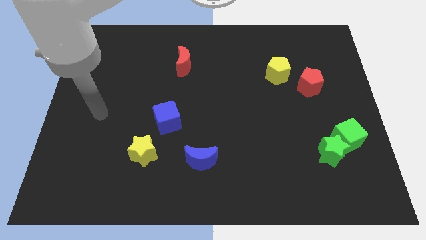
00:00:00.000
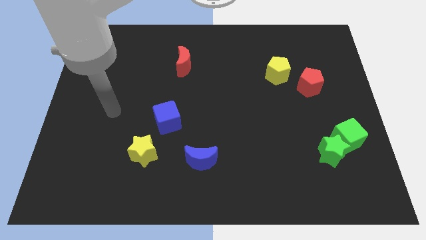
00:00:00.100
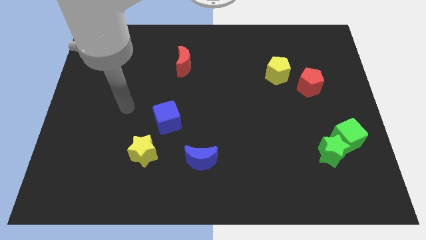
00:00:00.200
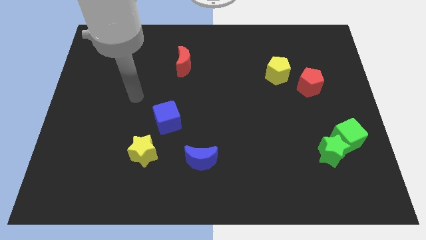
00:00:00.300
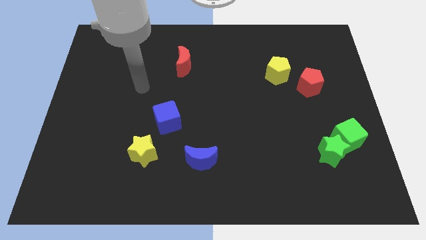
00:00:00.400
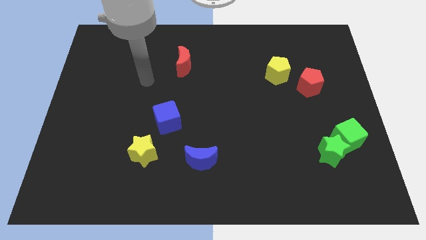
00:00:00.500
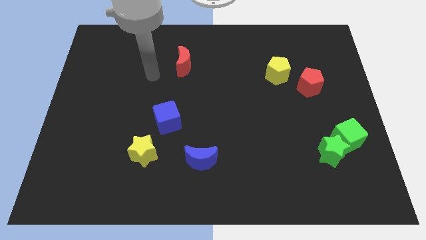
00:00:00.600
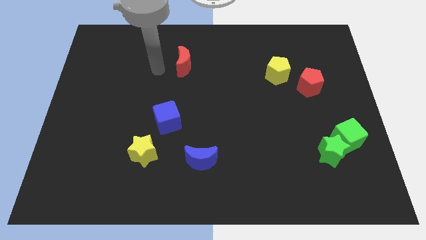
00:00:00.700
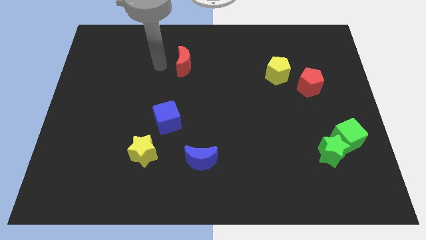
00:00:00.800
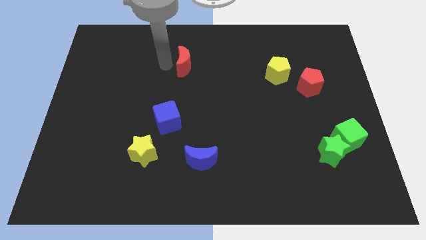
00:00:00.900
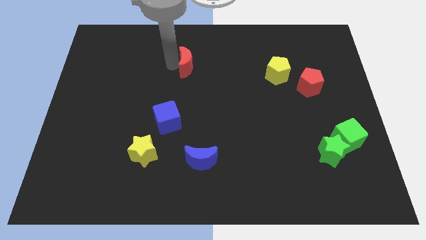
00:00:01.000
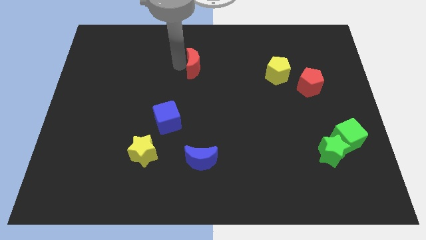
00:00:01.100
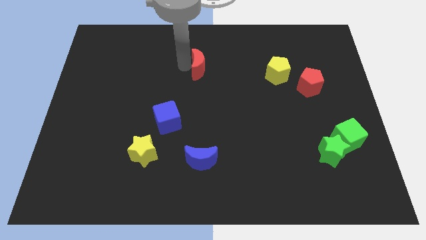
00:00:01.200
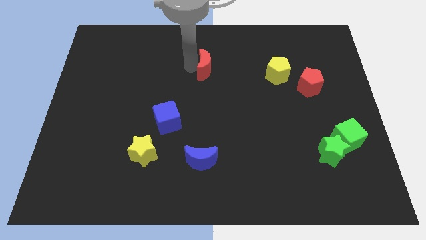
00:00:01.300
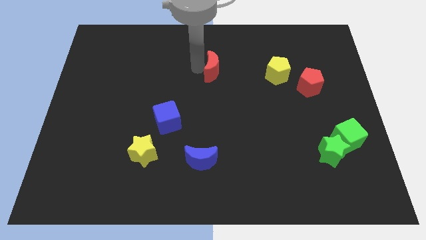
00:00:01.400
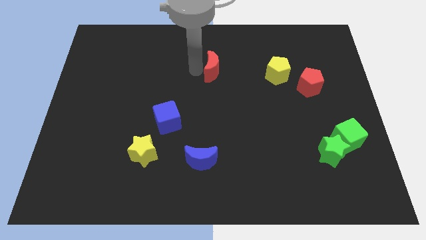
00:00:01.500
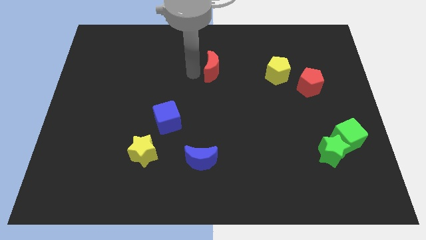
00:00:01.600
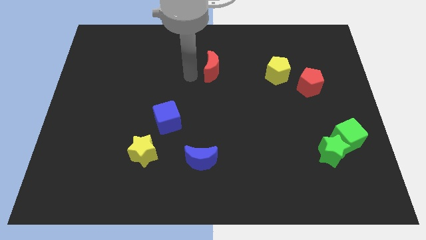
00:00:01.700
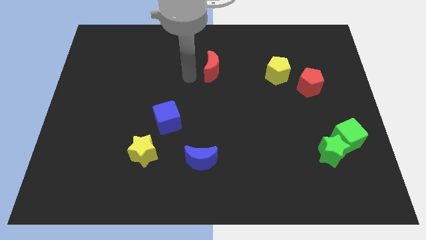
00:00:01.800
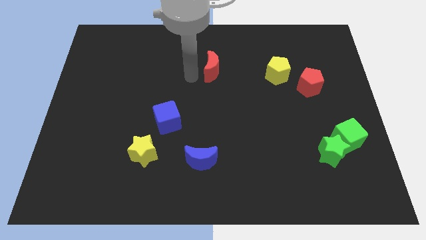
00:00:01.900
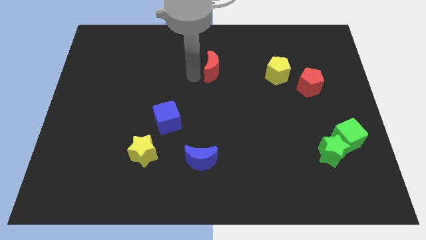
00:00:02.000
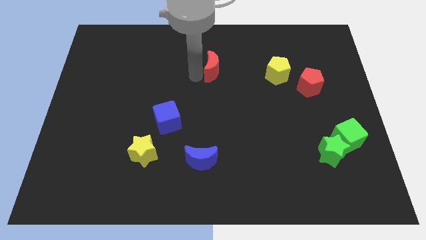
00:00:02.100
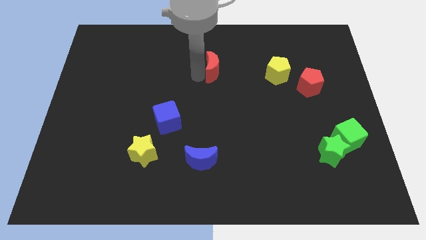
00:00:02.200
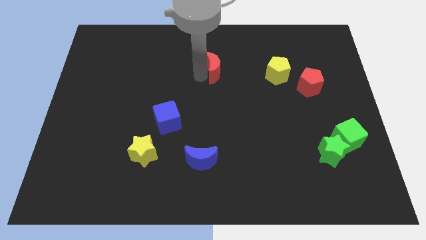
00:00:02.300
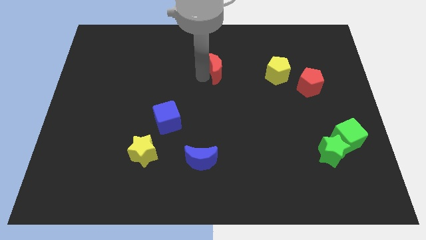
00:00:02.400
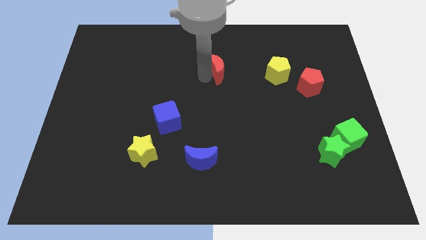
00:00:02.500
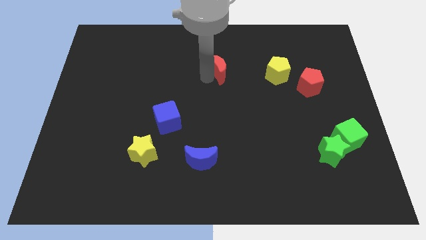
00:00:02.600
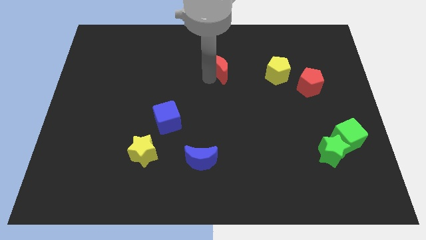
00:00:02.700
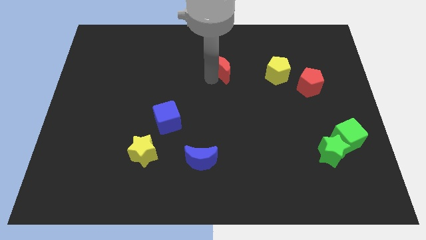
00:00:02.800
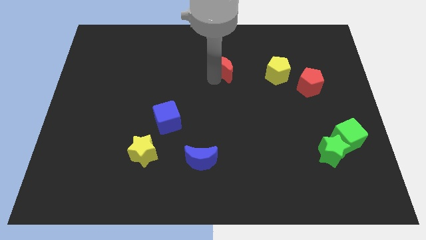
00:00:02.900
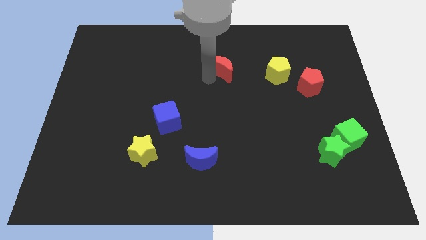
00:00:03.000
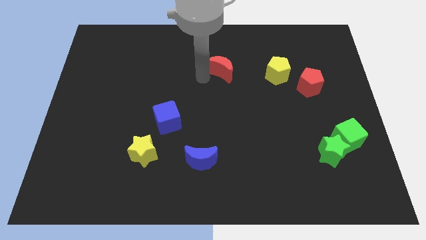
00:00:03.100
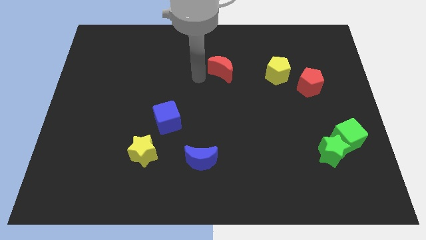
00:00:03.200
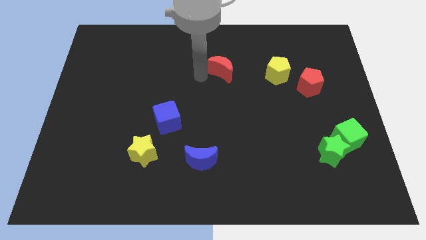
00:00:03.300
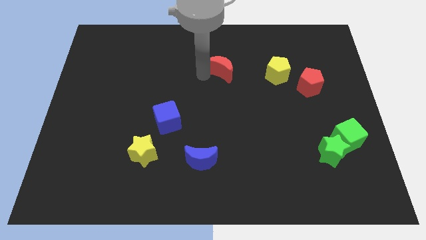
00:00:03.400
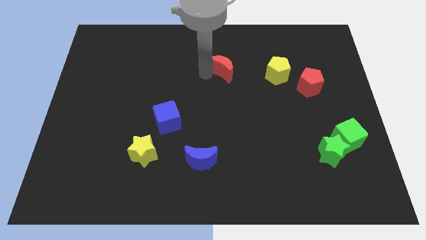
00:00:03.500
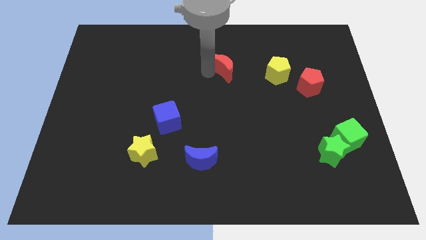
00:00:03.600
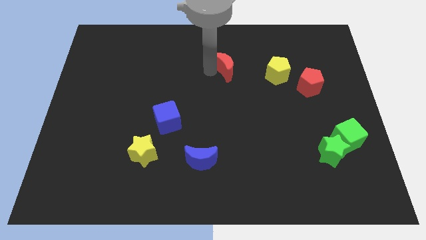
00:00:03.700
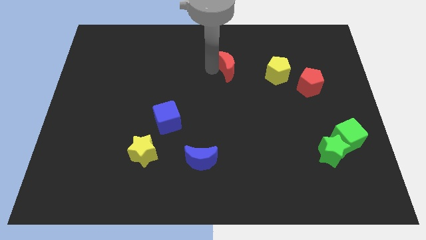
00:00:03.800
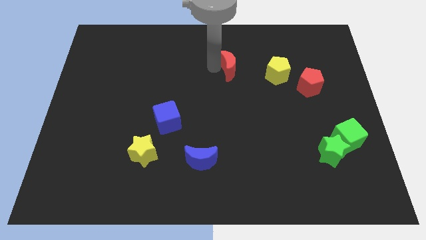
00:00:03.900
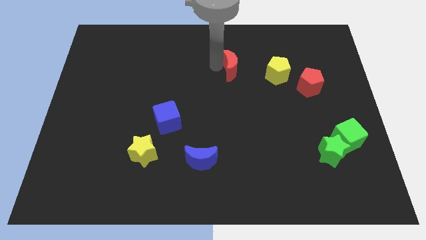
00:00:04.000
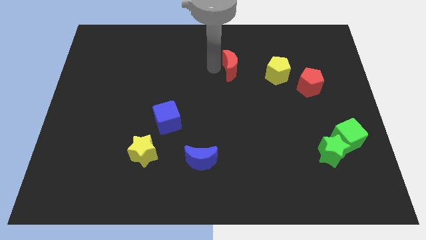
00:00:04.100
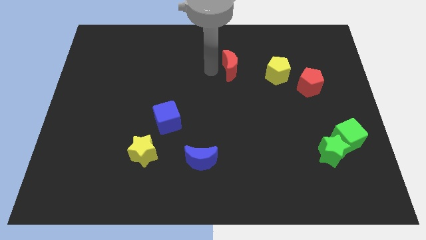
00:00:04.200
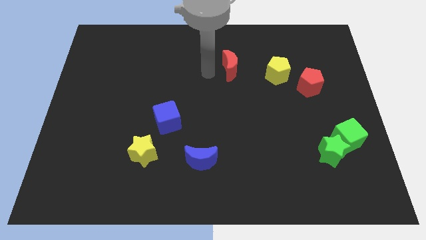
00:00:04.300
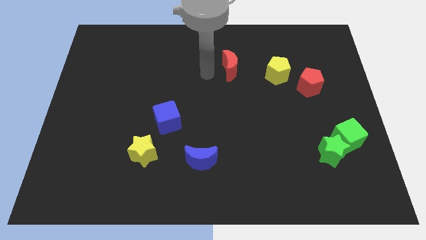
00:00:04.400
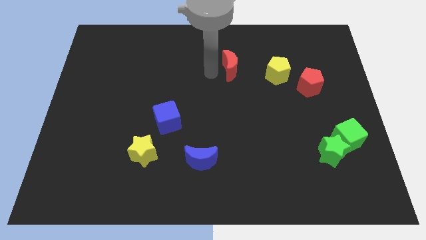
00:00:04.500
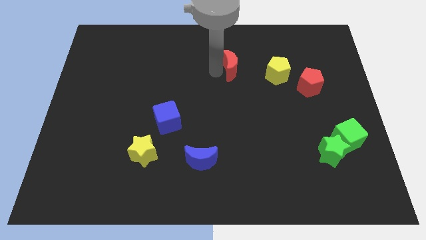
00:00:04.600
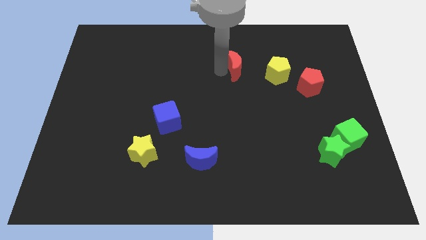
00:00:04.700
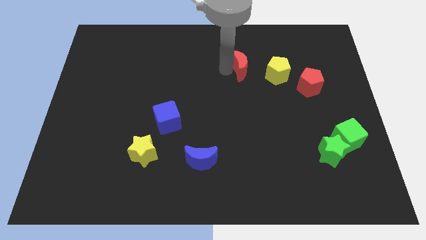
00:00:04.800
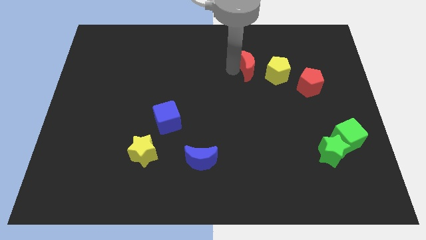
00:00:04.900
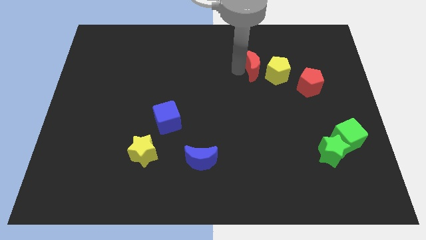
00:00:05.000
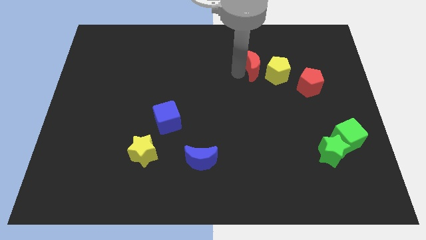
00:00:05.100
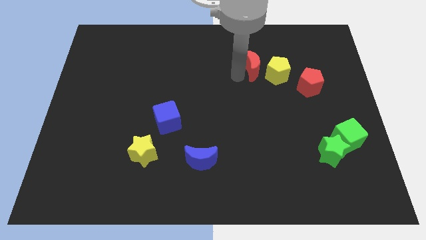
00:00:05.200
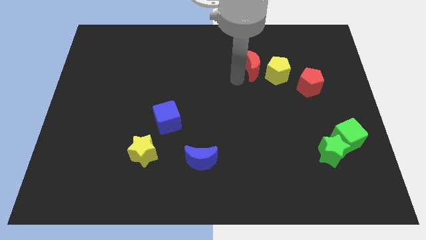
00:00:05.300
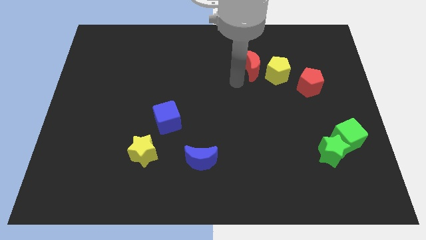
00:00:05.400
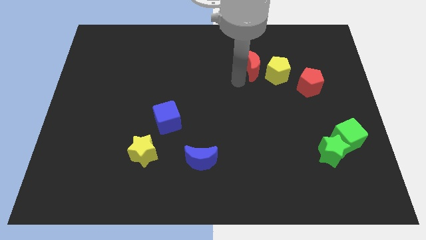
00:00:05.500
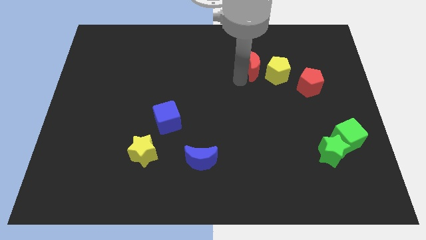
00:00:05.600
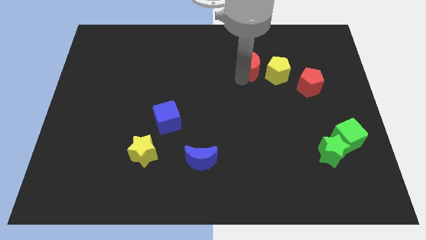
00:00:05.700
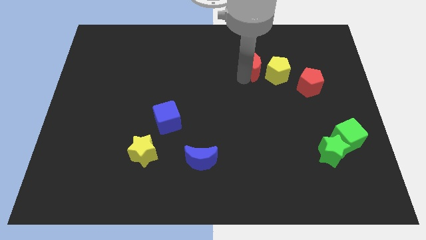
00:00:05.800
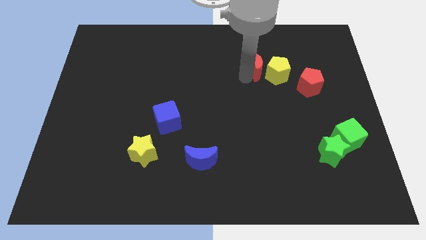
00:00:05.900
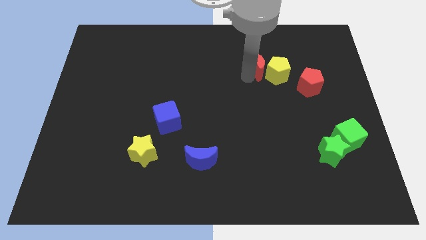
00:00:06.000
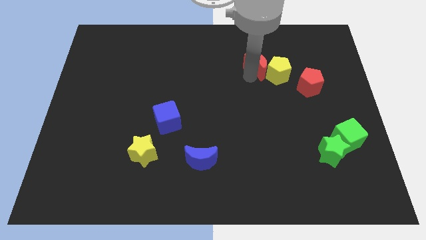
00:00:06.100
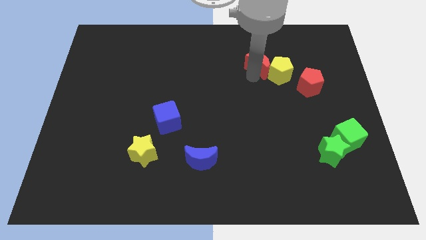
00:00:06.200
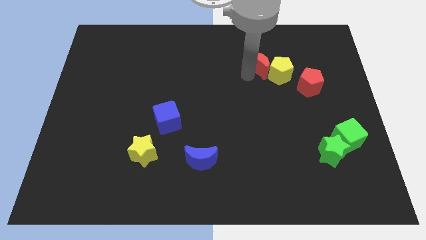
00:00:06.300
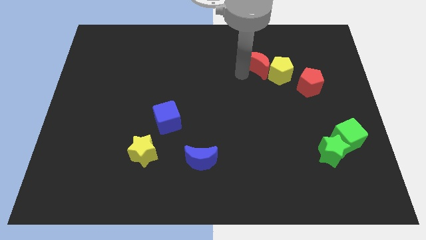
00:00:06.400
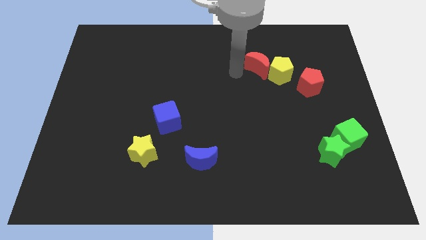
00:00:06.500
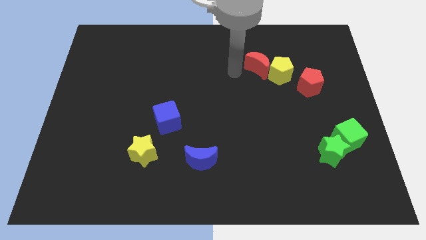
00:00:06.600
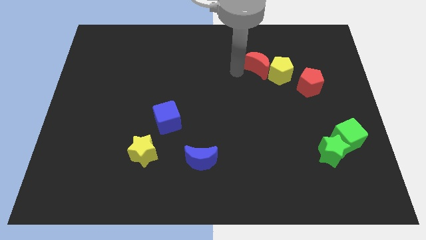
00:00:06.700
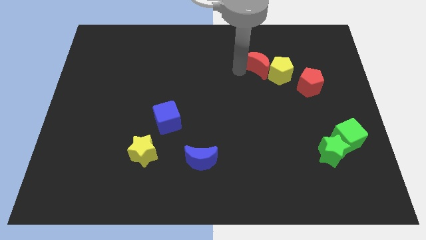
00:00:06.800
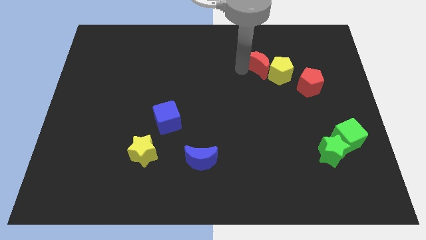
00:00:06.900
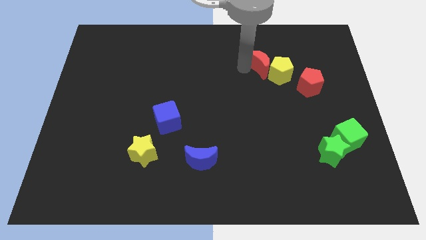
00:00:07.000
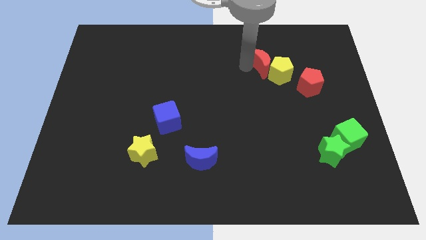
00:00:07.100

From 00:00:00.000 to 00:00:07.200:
push the red moon to the right

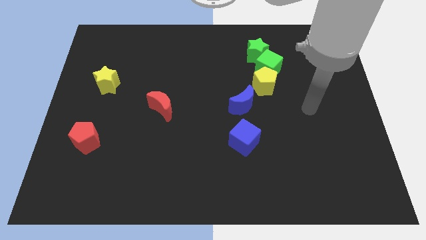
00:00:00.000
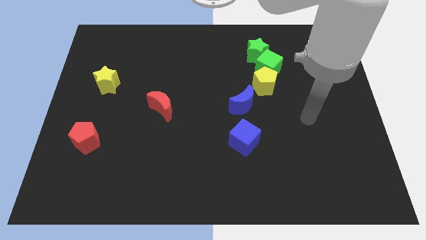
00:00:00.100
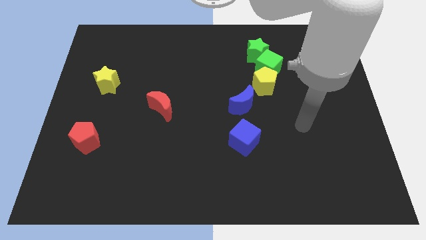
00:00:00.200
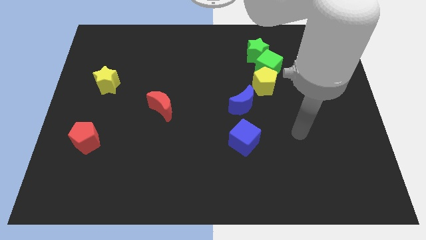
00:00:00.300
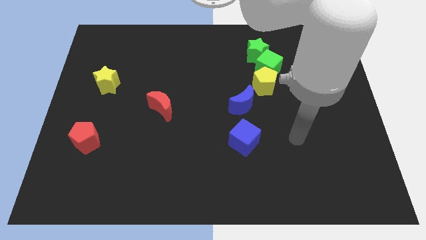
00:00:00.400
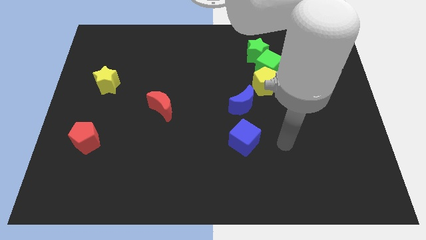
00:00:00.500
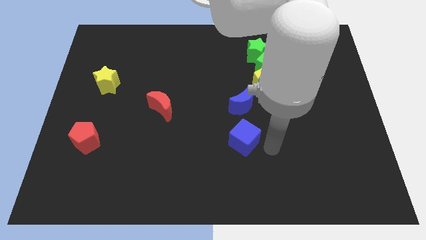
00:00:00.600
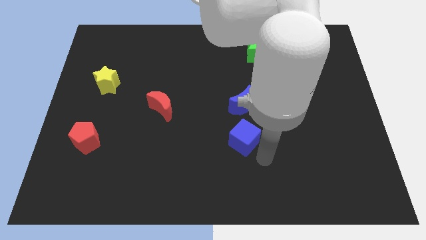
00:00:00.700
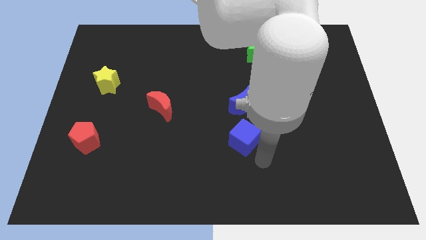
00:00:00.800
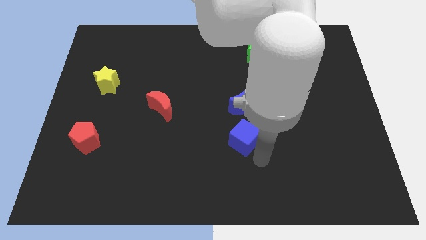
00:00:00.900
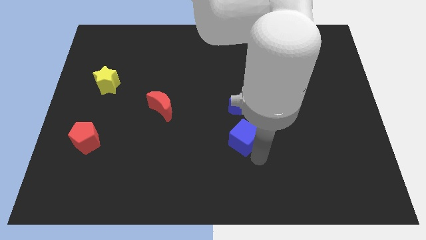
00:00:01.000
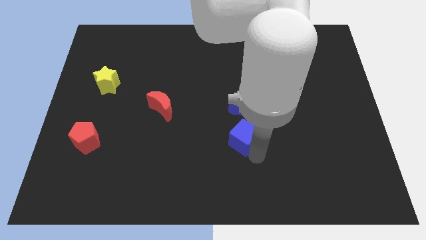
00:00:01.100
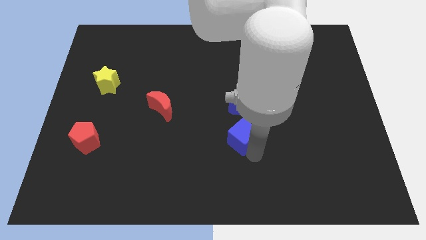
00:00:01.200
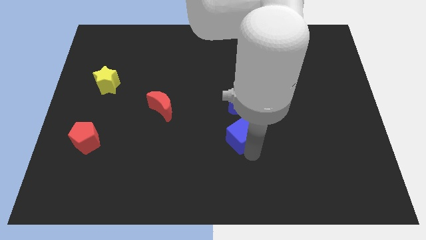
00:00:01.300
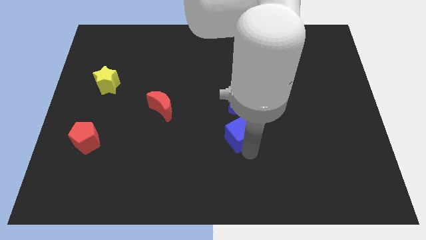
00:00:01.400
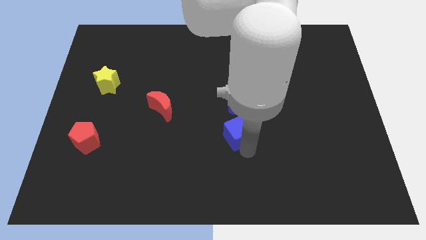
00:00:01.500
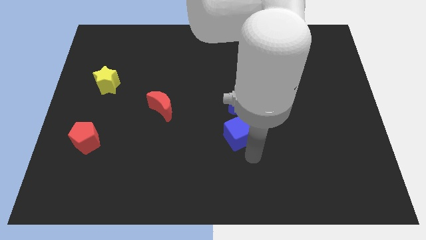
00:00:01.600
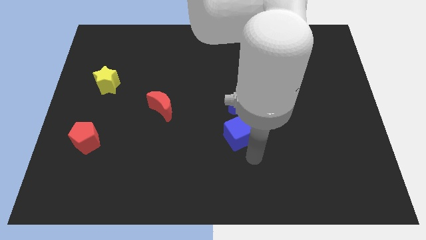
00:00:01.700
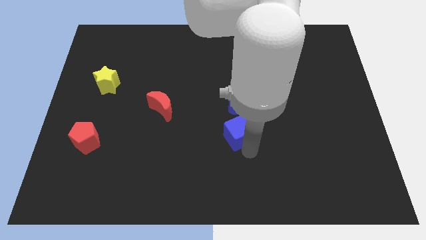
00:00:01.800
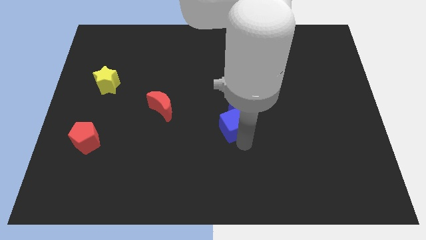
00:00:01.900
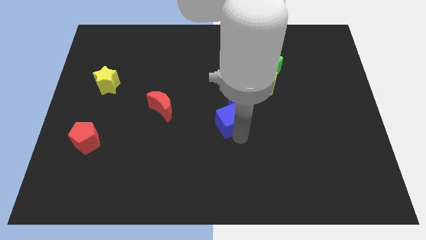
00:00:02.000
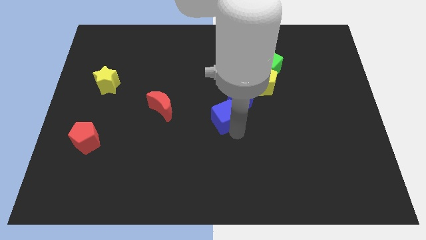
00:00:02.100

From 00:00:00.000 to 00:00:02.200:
push the blue cube a bit upwards and to the left
